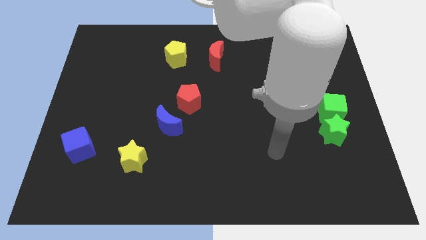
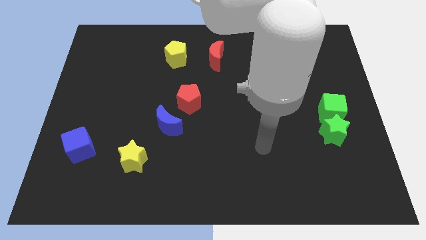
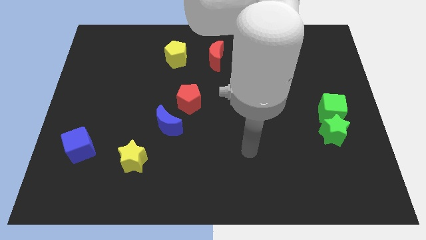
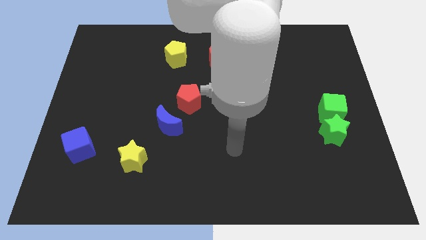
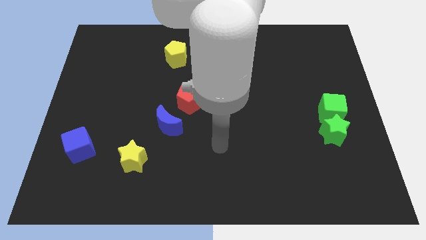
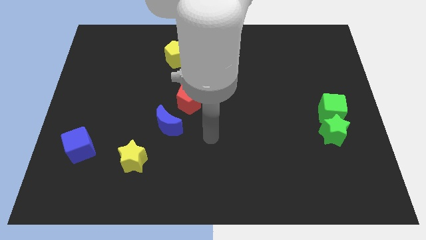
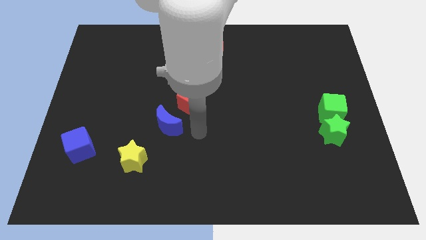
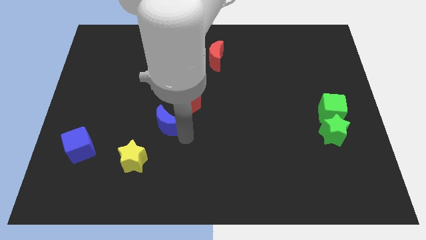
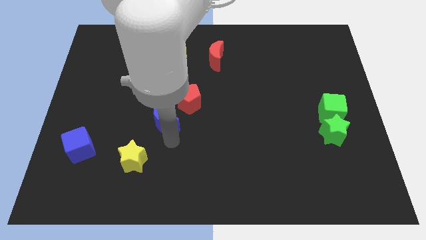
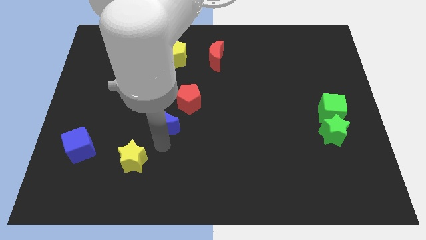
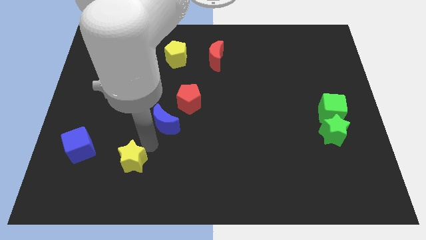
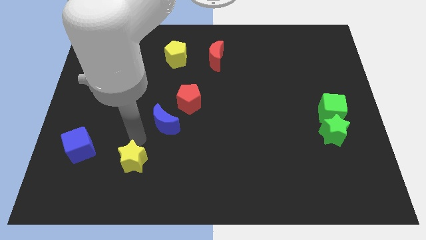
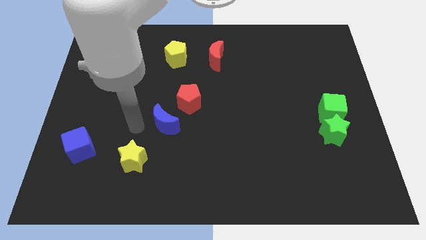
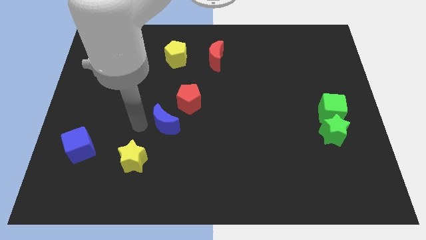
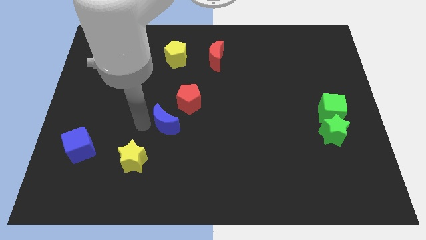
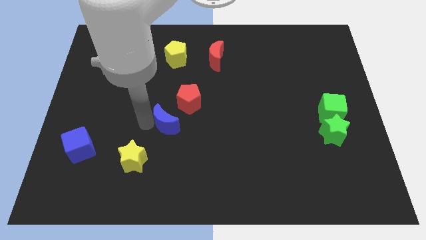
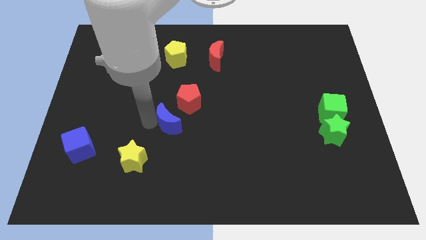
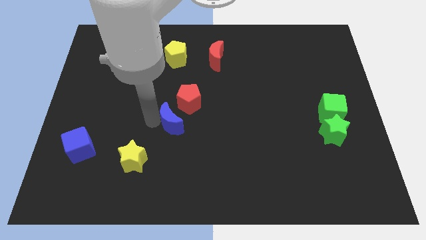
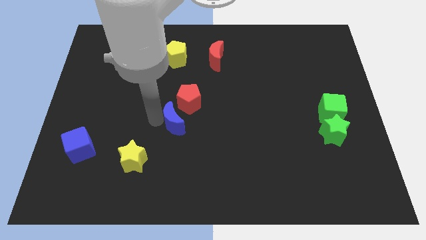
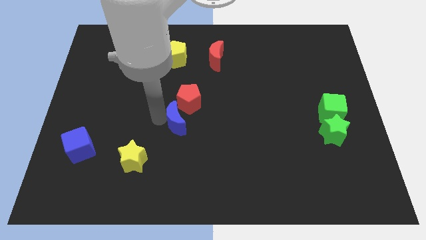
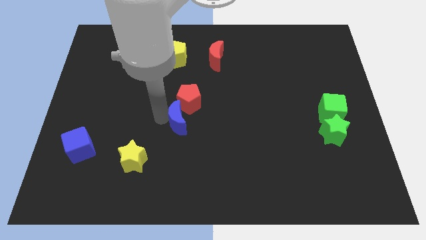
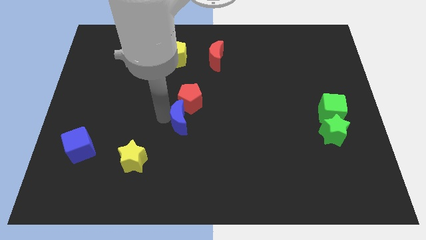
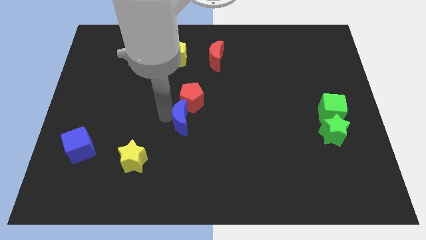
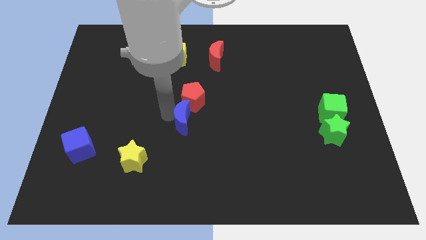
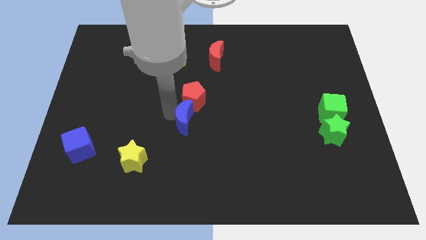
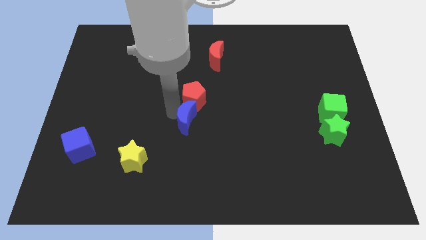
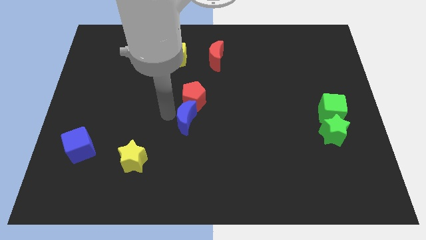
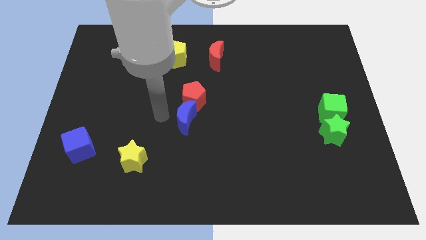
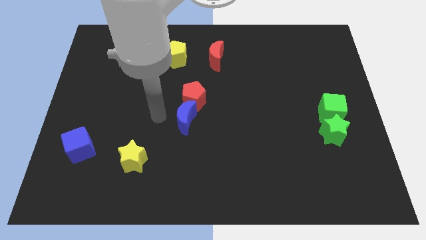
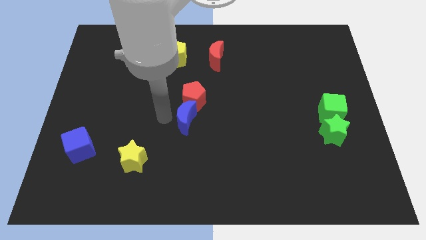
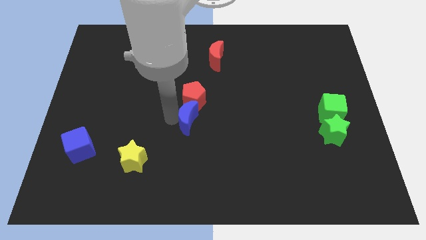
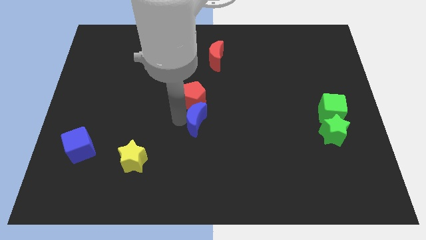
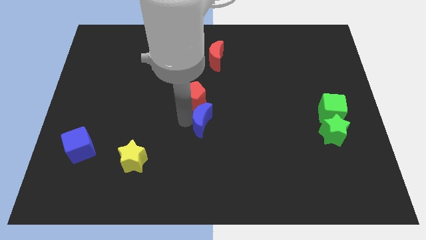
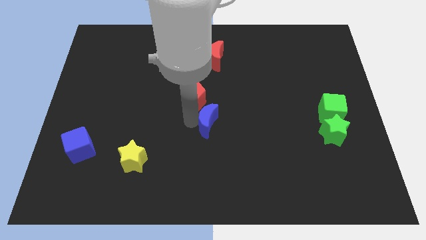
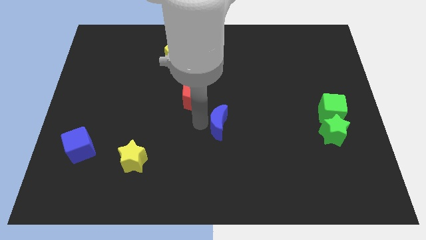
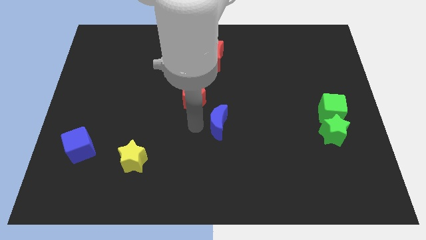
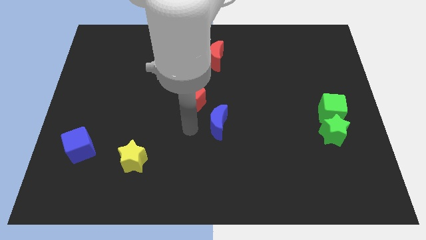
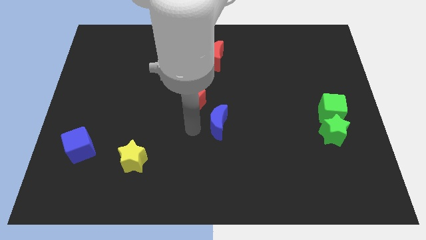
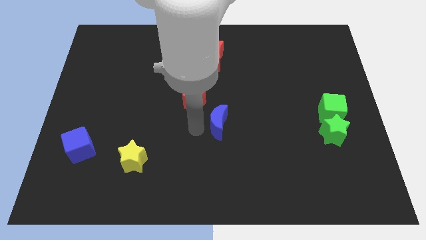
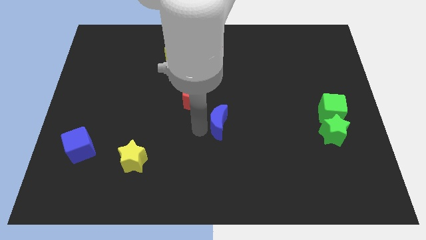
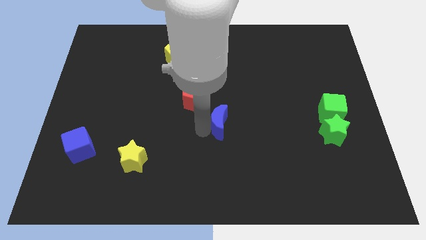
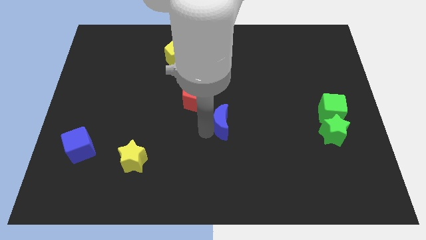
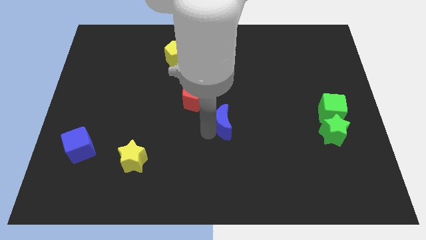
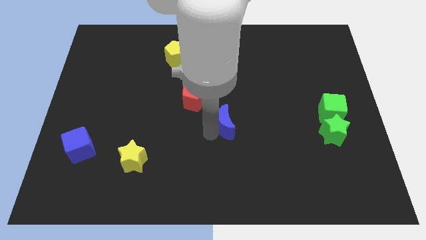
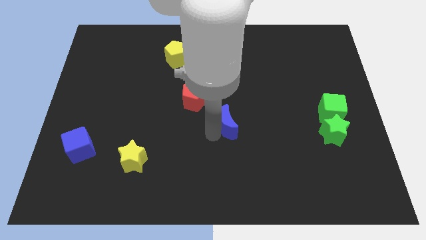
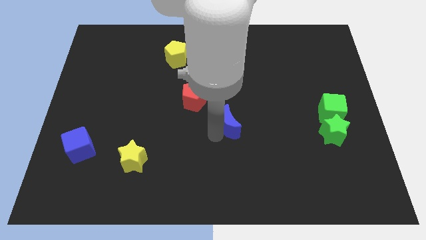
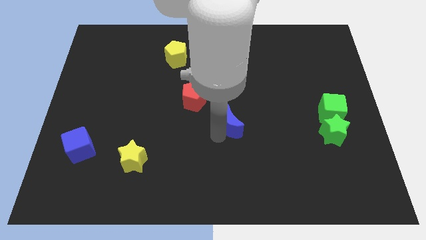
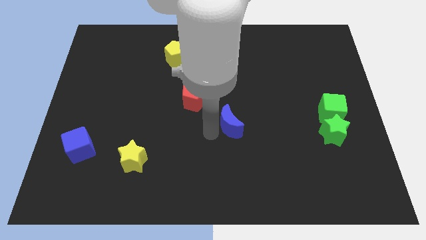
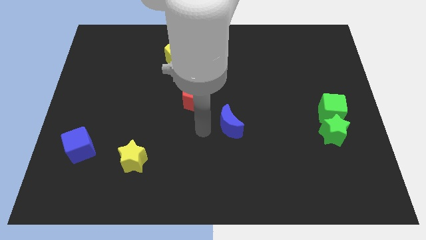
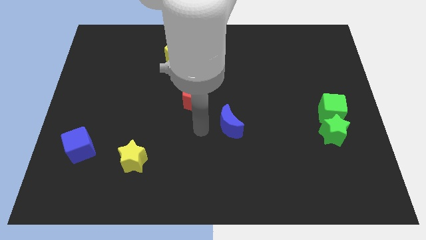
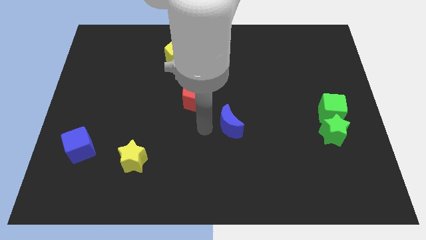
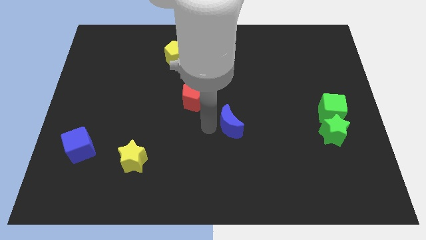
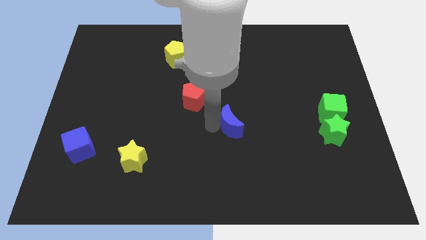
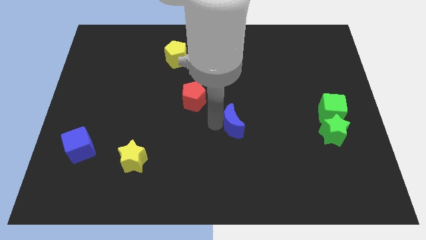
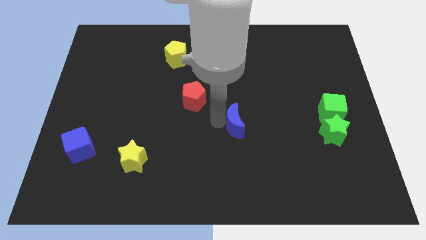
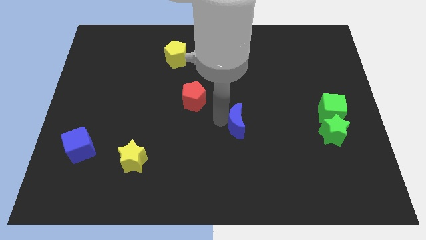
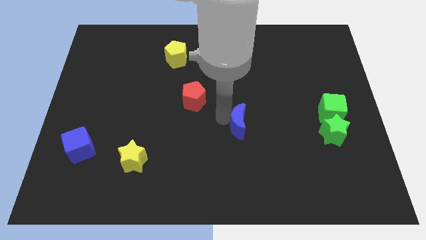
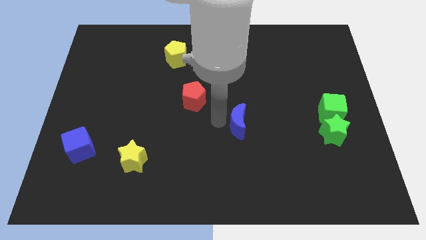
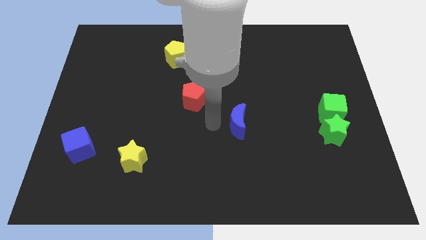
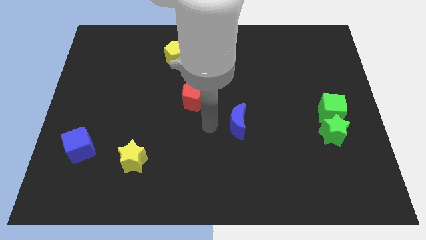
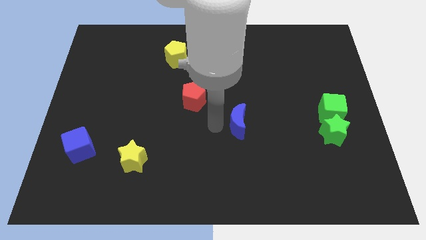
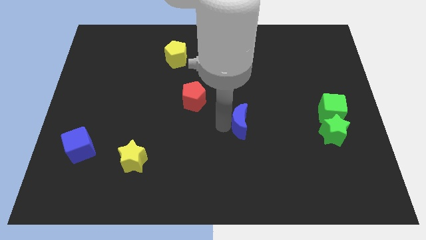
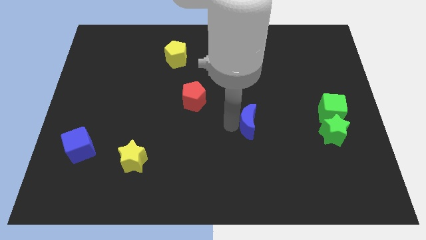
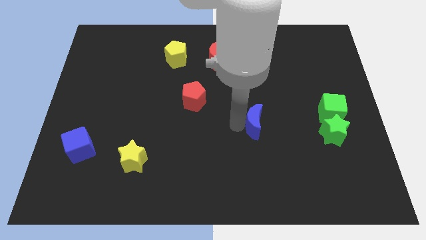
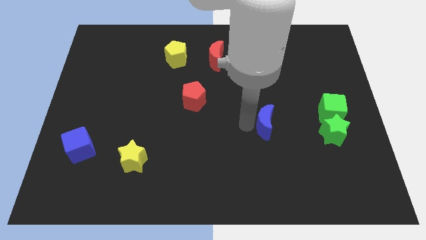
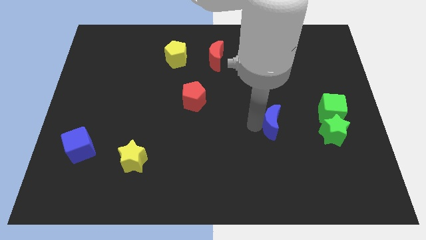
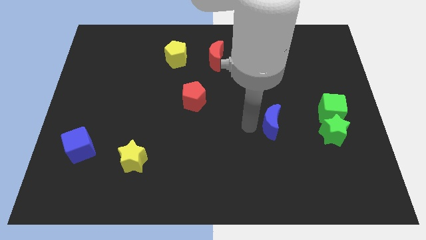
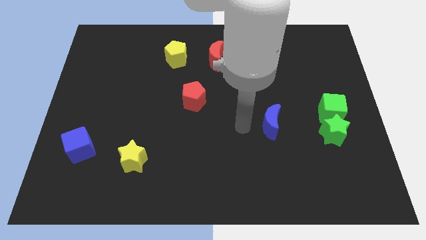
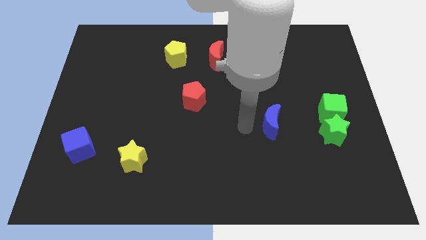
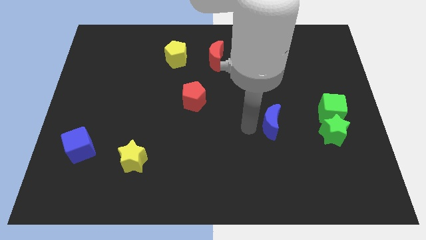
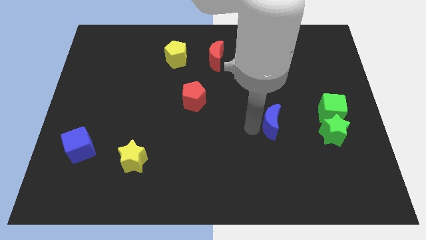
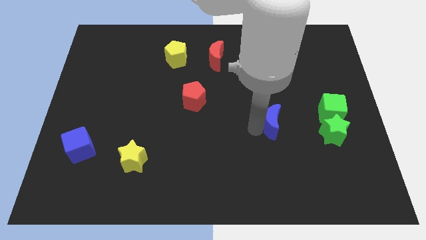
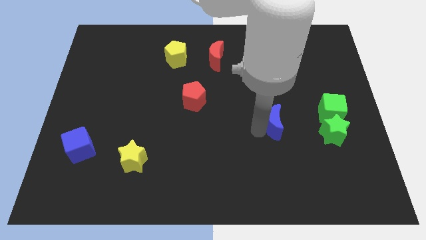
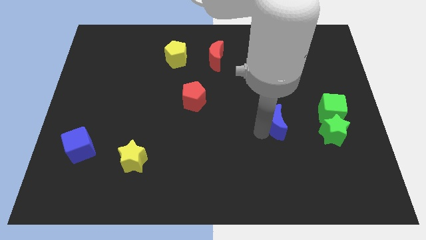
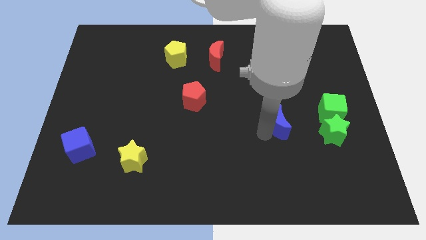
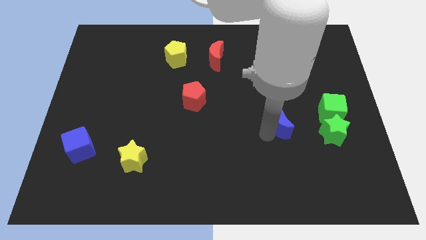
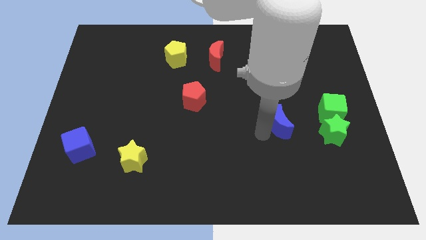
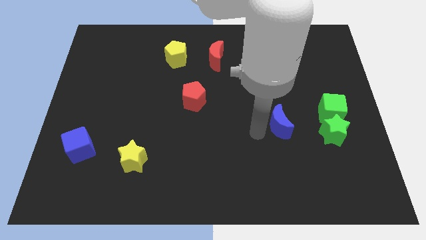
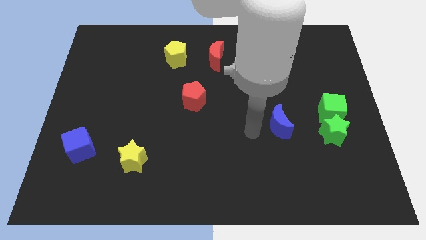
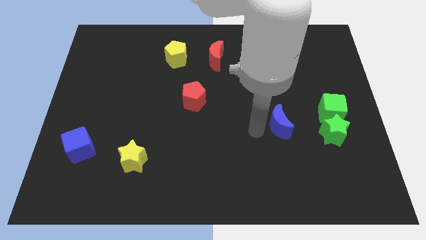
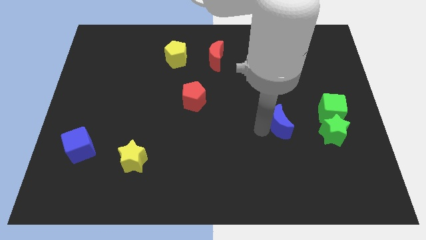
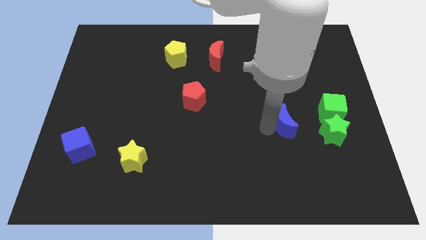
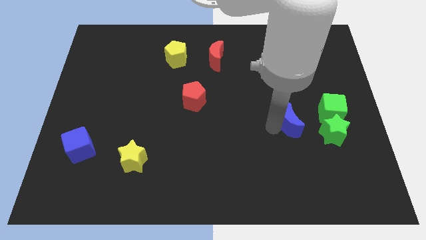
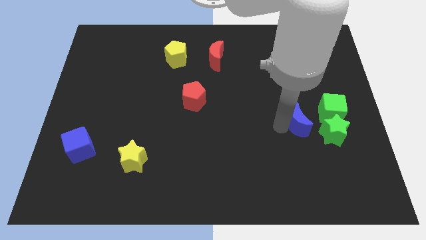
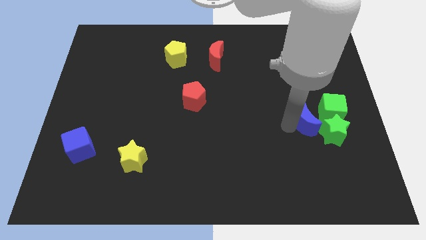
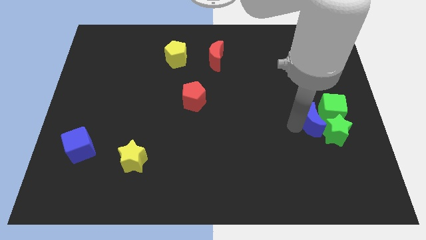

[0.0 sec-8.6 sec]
push the blue moon to the green cube
